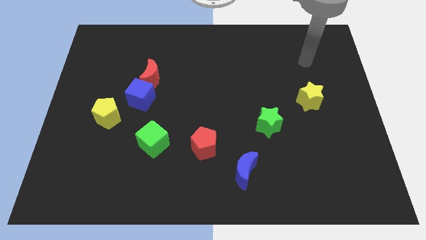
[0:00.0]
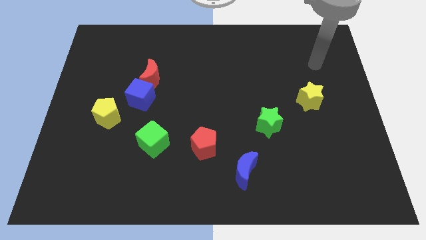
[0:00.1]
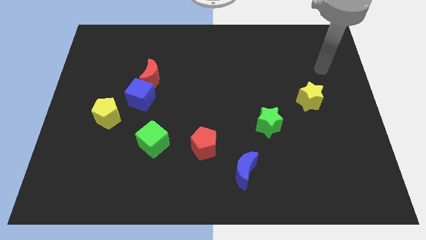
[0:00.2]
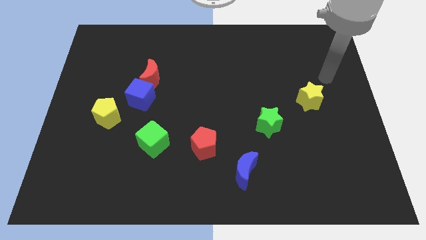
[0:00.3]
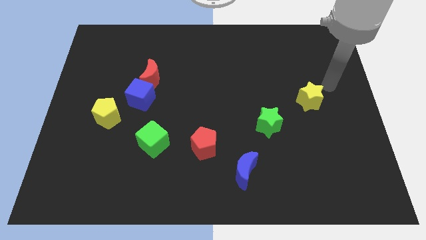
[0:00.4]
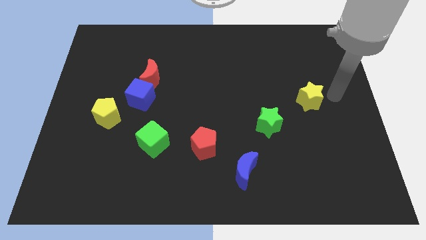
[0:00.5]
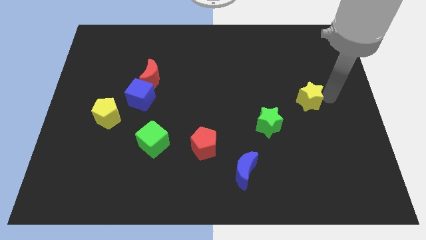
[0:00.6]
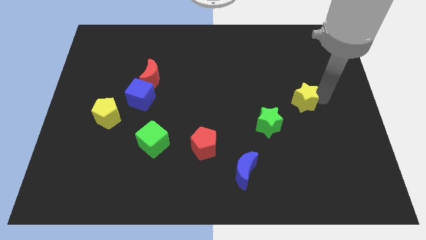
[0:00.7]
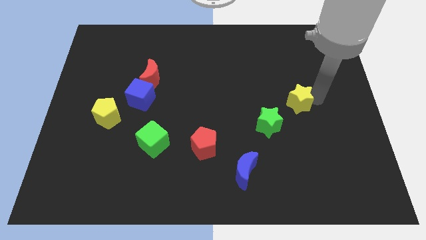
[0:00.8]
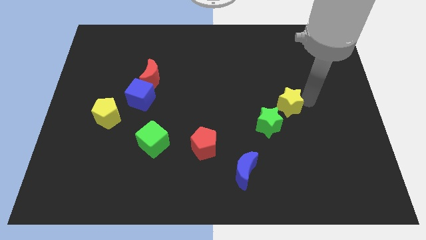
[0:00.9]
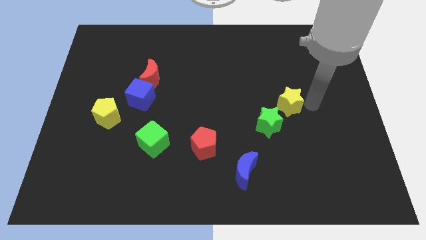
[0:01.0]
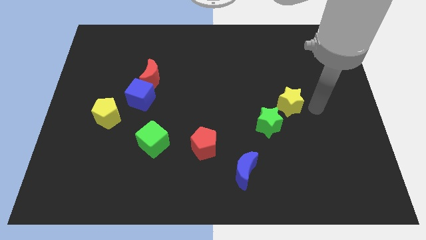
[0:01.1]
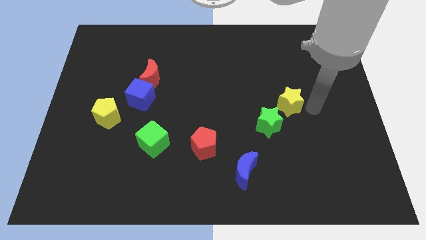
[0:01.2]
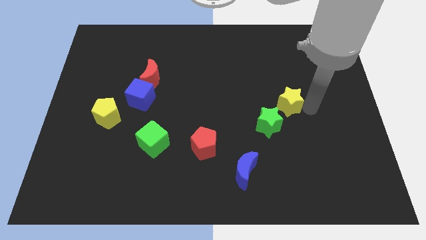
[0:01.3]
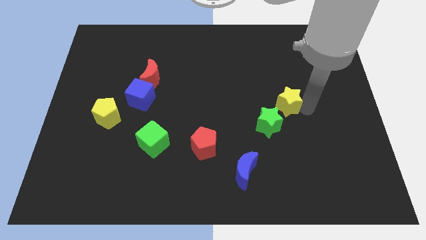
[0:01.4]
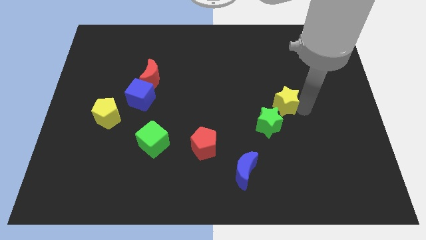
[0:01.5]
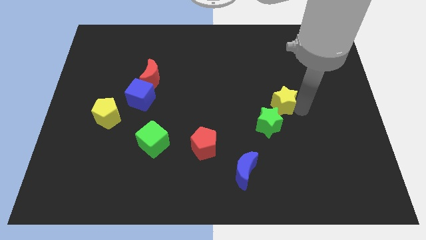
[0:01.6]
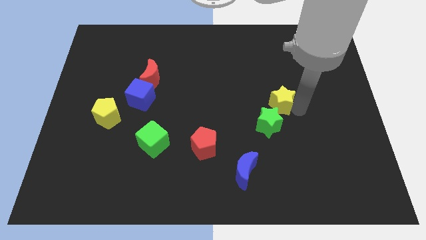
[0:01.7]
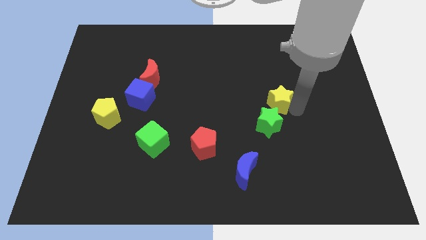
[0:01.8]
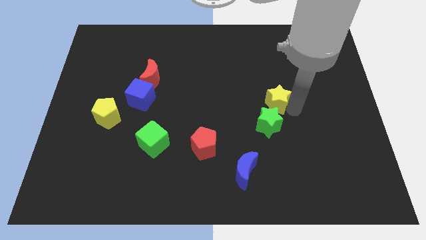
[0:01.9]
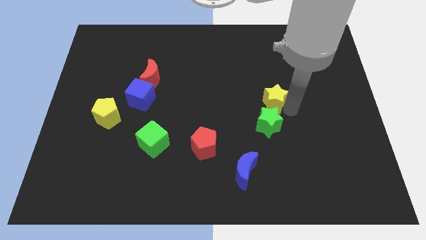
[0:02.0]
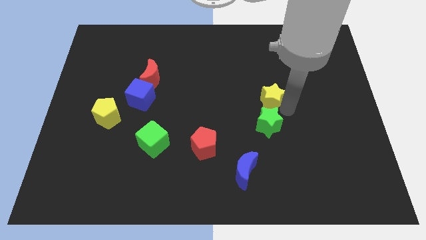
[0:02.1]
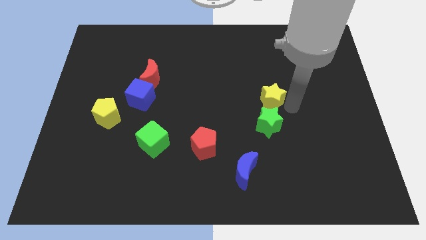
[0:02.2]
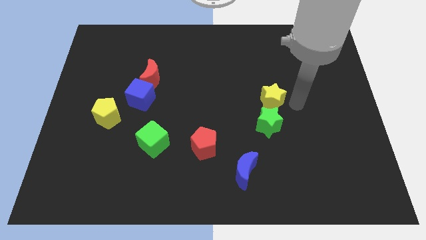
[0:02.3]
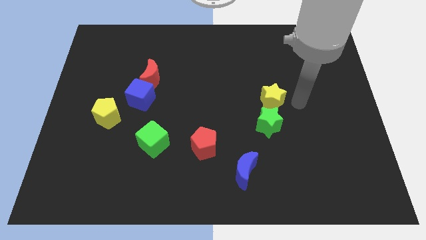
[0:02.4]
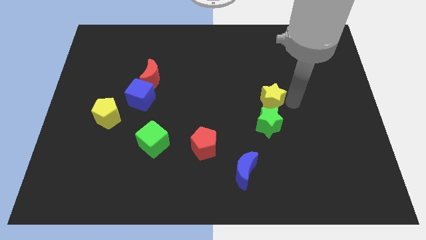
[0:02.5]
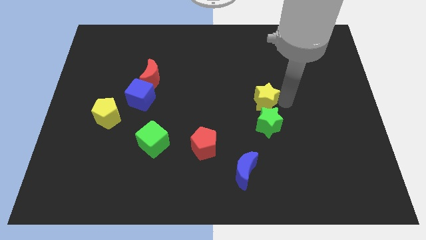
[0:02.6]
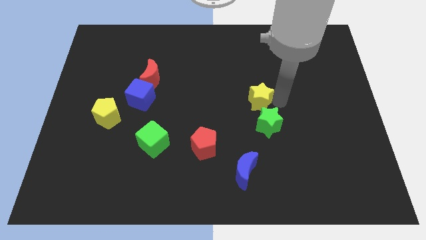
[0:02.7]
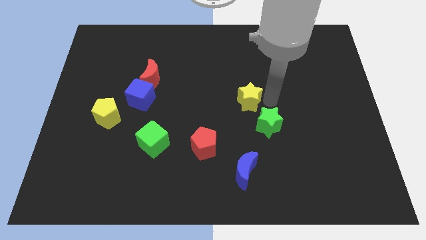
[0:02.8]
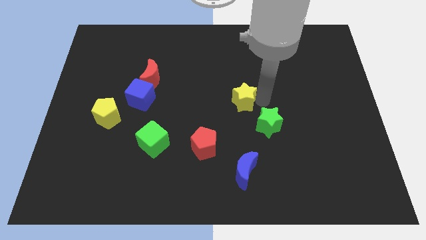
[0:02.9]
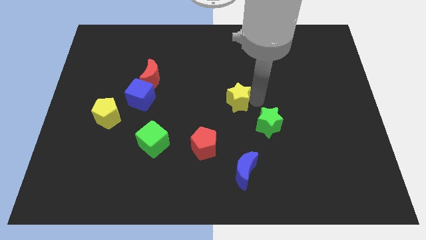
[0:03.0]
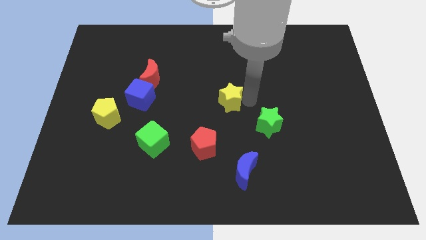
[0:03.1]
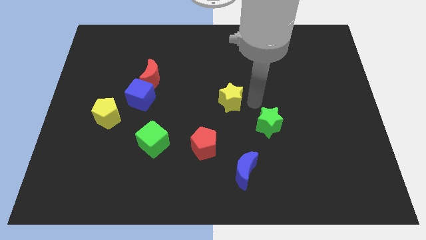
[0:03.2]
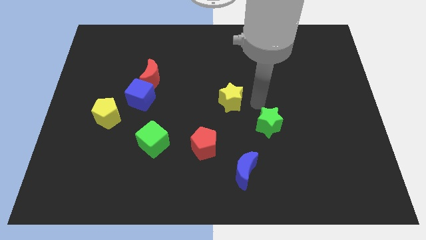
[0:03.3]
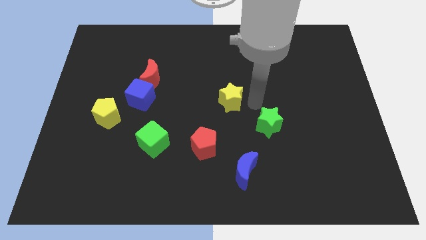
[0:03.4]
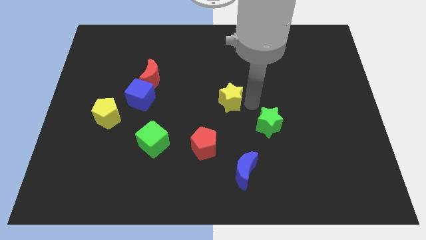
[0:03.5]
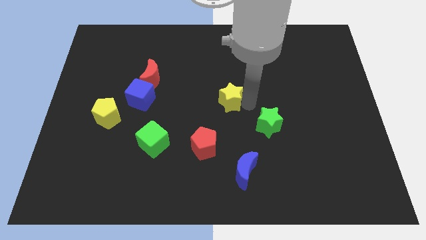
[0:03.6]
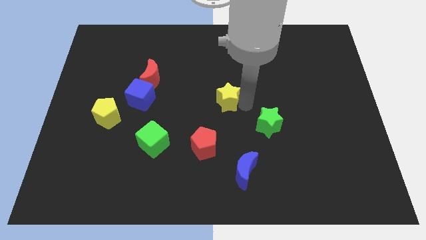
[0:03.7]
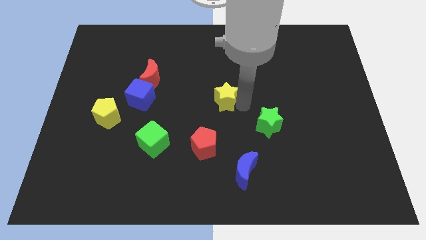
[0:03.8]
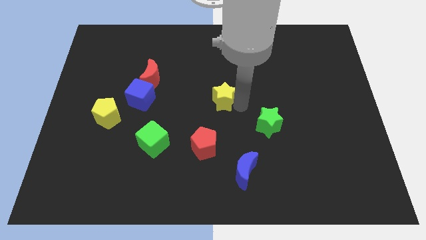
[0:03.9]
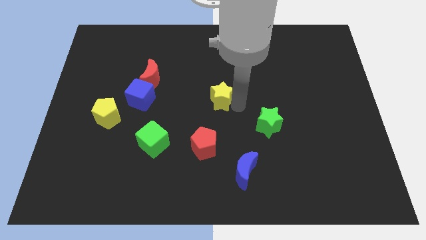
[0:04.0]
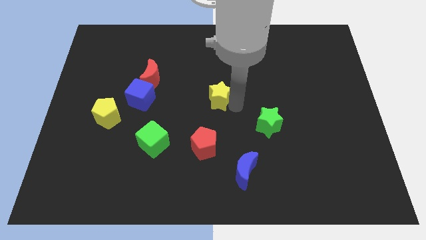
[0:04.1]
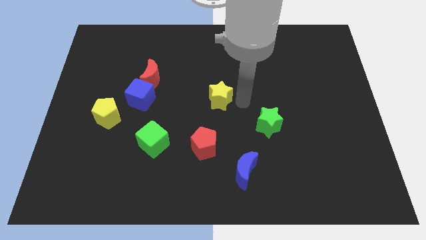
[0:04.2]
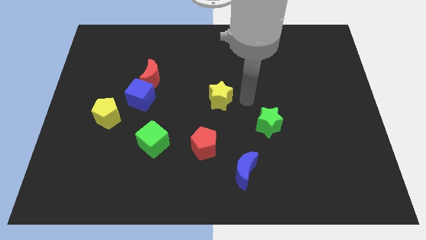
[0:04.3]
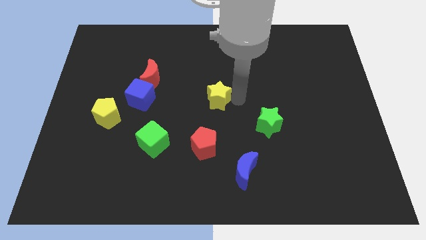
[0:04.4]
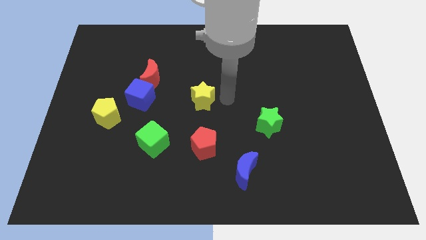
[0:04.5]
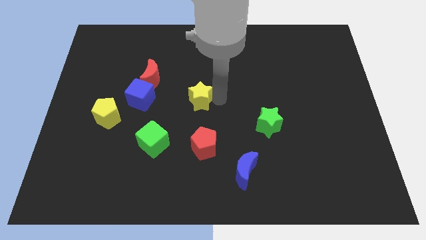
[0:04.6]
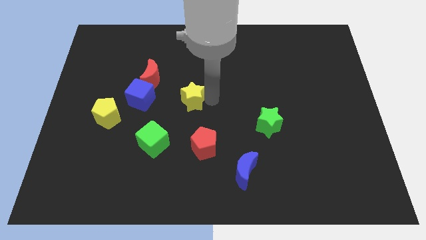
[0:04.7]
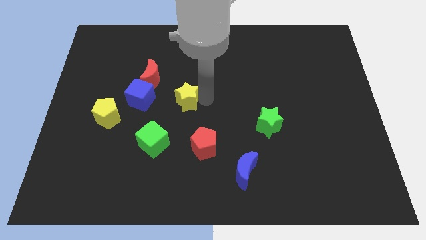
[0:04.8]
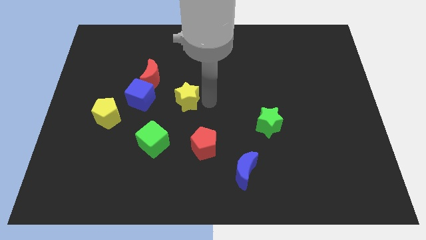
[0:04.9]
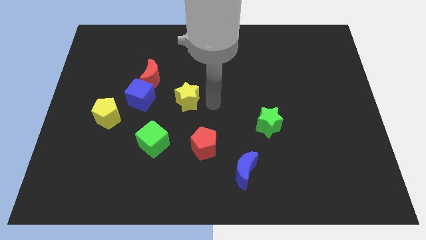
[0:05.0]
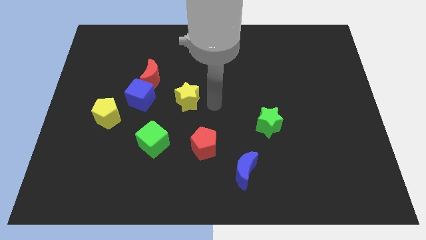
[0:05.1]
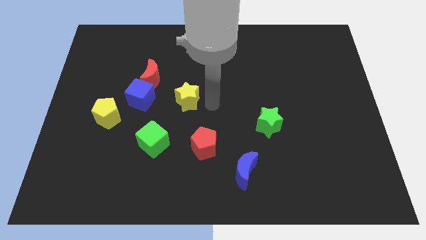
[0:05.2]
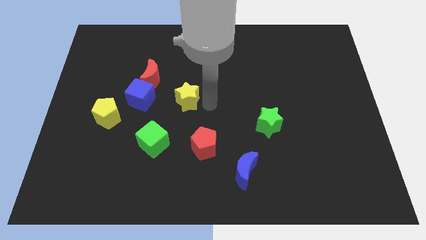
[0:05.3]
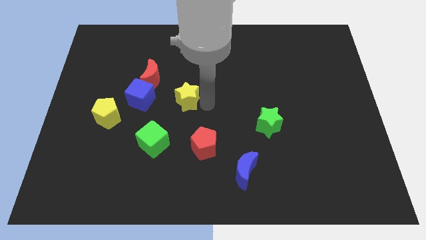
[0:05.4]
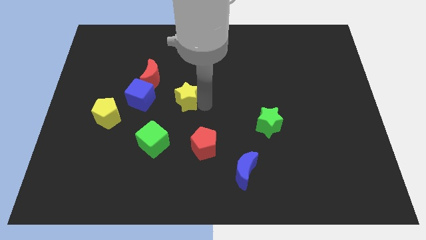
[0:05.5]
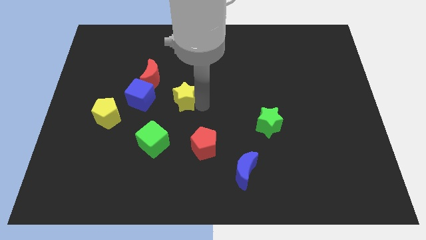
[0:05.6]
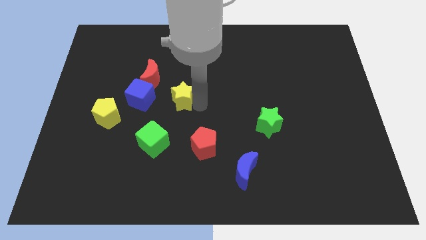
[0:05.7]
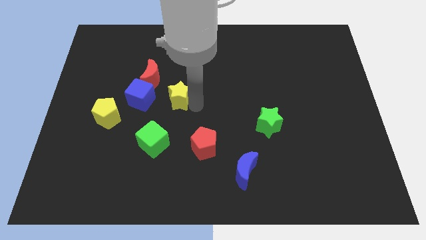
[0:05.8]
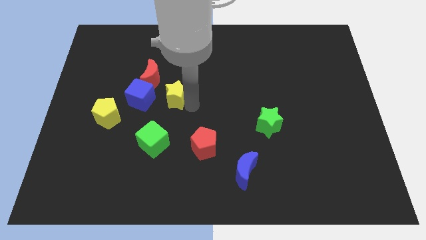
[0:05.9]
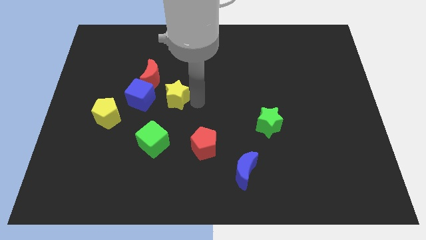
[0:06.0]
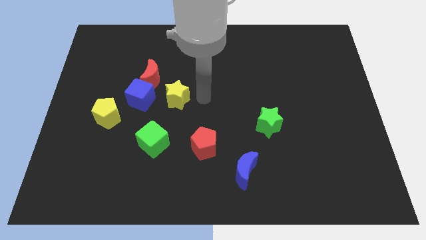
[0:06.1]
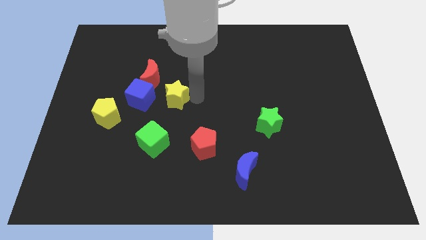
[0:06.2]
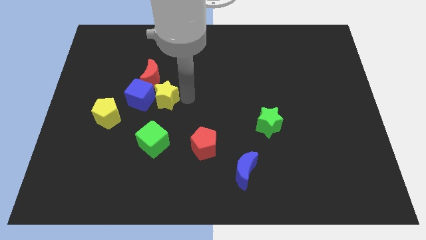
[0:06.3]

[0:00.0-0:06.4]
put the yellow star next to the blue cube

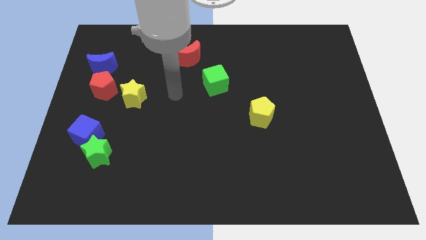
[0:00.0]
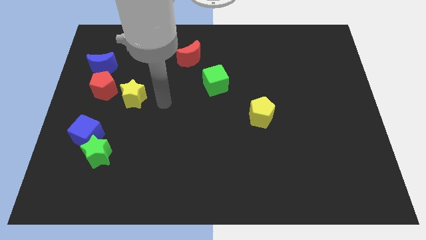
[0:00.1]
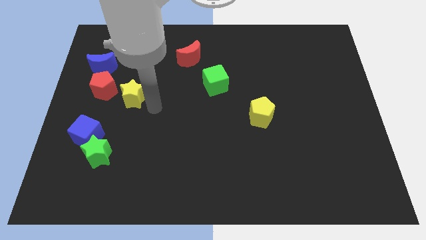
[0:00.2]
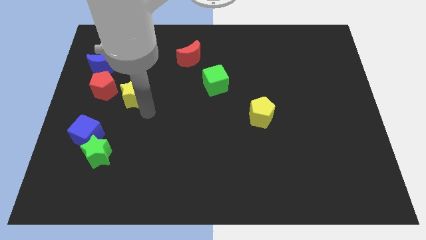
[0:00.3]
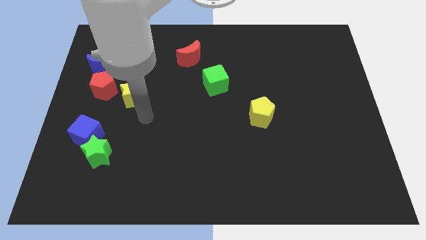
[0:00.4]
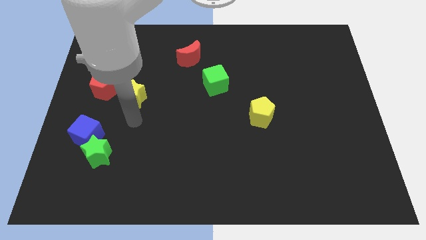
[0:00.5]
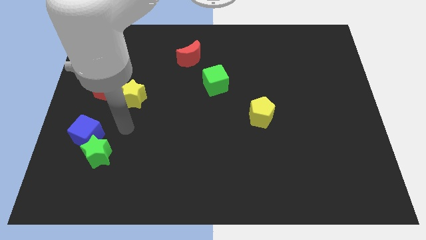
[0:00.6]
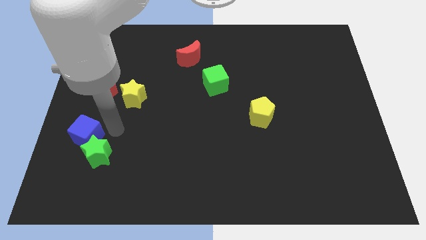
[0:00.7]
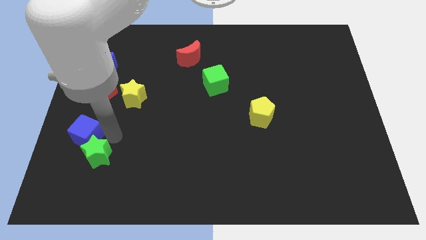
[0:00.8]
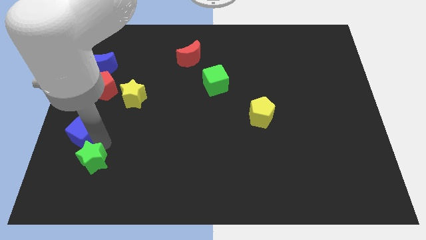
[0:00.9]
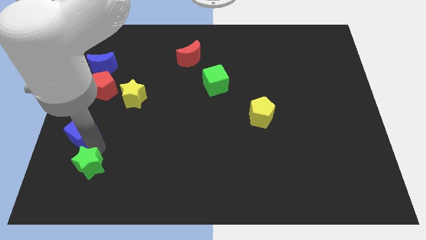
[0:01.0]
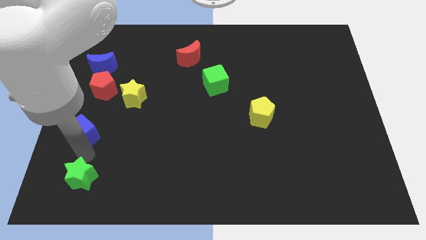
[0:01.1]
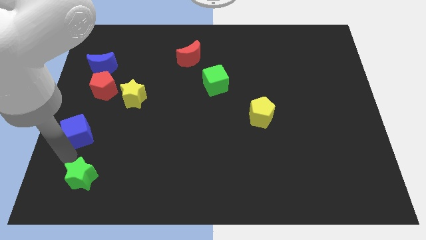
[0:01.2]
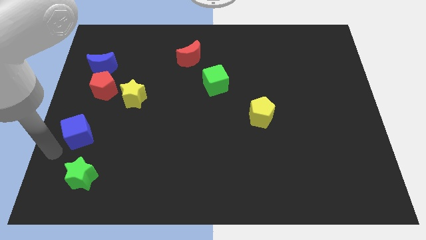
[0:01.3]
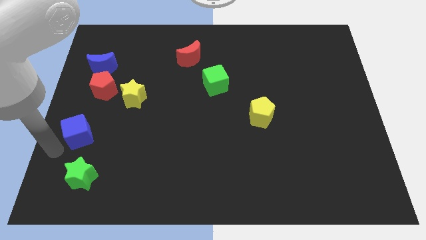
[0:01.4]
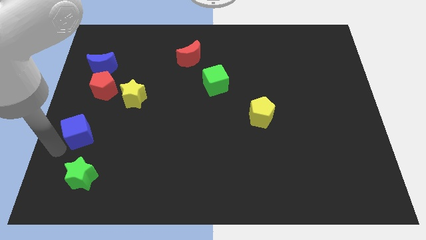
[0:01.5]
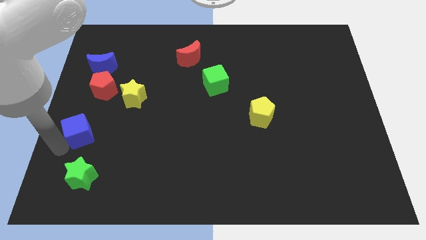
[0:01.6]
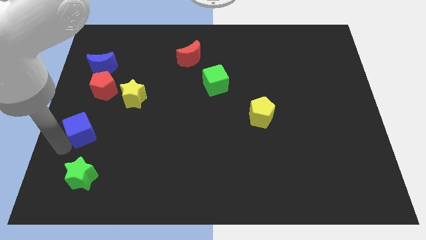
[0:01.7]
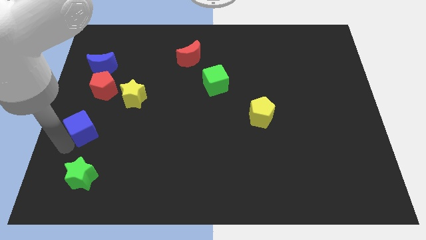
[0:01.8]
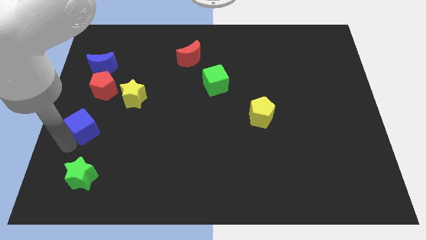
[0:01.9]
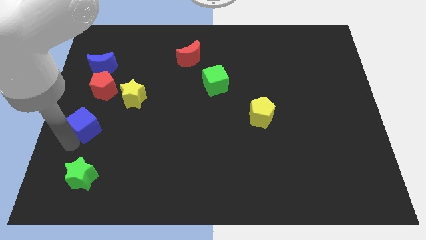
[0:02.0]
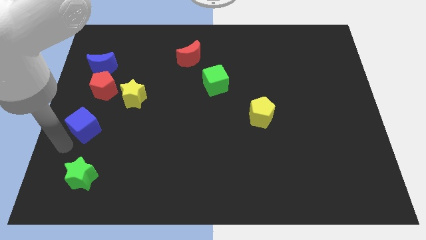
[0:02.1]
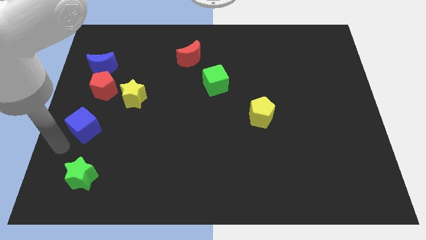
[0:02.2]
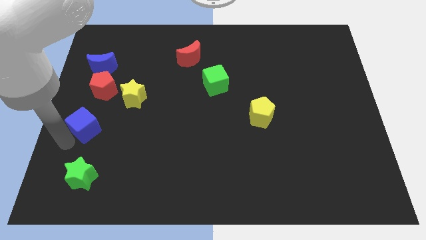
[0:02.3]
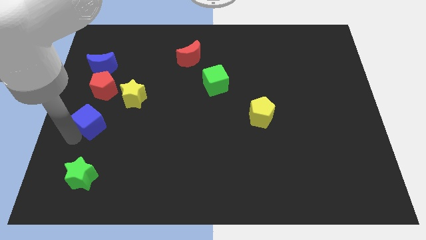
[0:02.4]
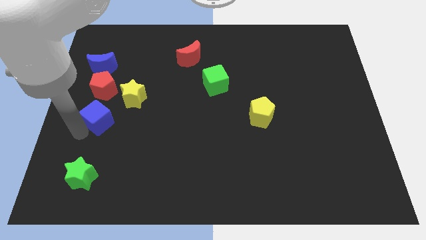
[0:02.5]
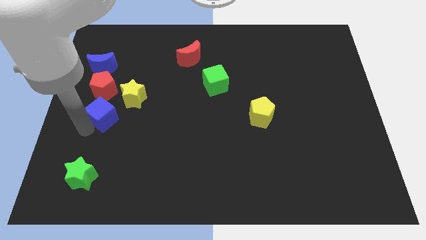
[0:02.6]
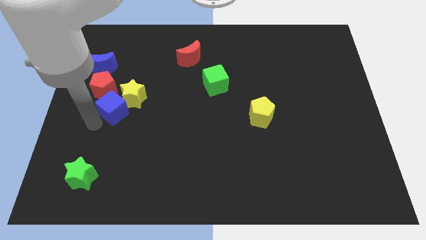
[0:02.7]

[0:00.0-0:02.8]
push the blue cube towards the yellow star
